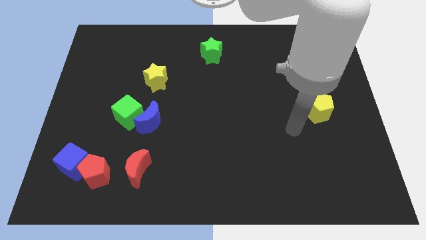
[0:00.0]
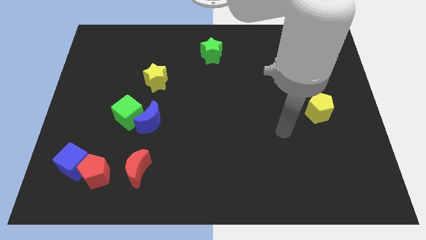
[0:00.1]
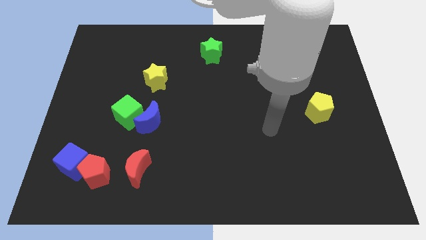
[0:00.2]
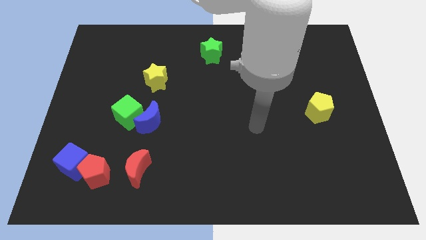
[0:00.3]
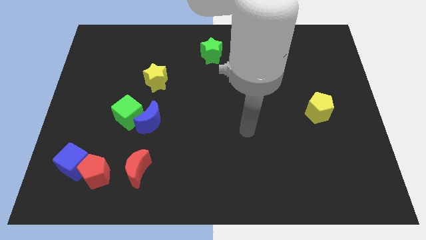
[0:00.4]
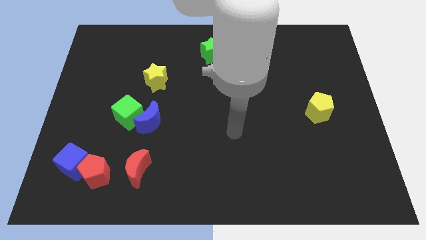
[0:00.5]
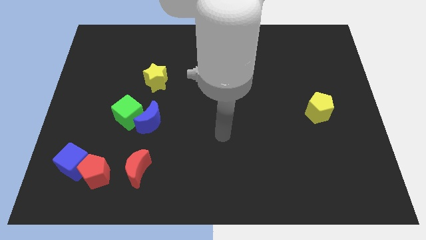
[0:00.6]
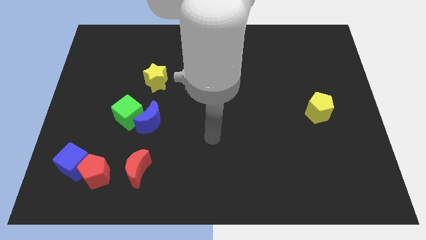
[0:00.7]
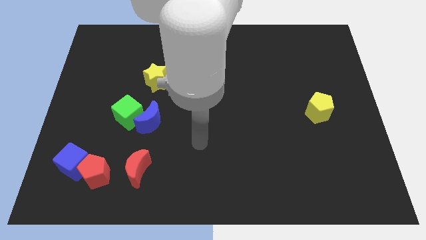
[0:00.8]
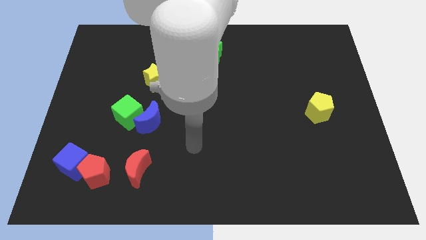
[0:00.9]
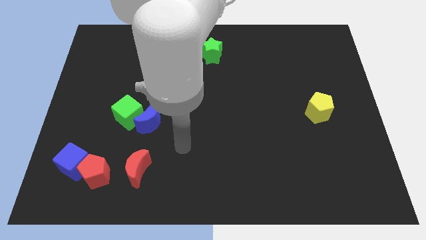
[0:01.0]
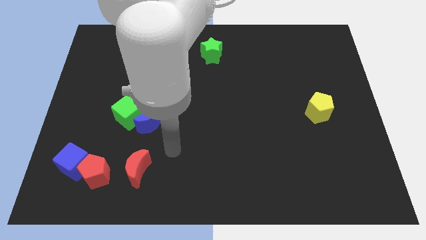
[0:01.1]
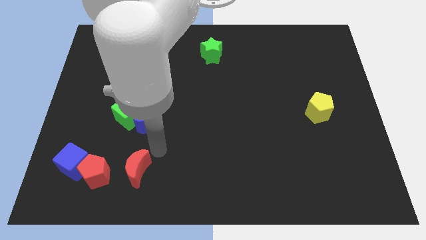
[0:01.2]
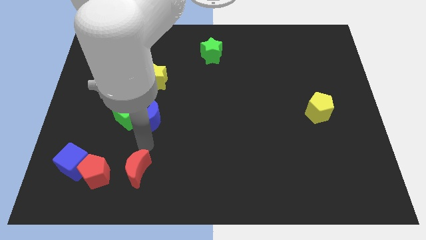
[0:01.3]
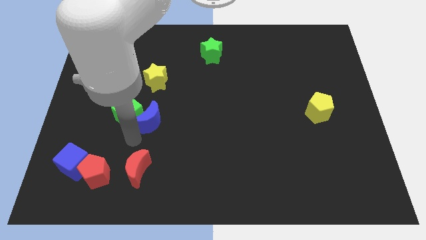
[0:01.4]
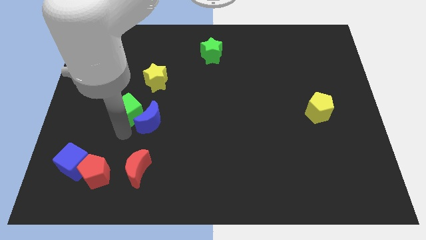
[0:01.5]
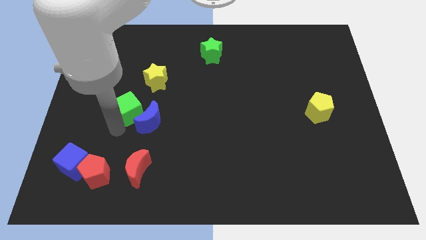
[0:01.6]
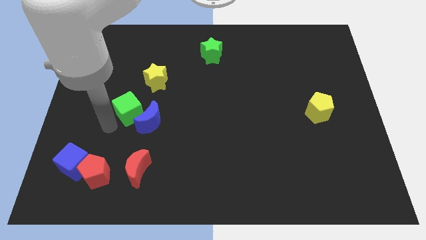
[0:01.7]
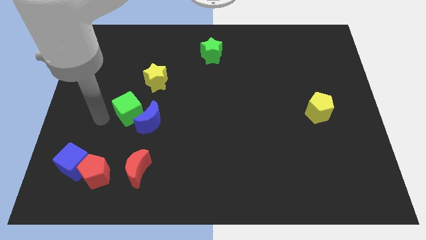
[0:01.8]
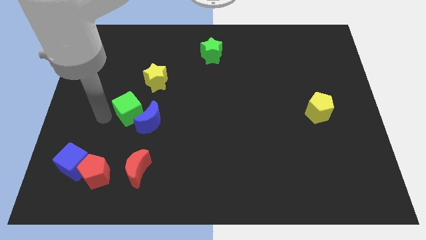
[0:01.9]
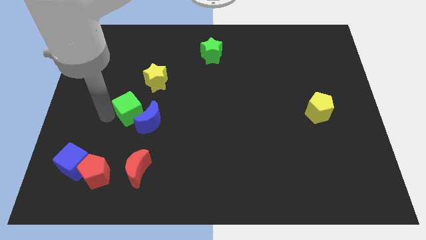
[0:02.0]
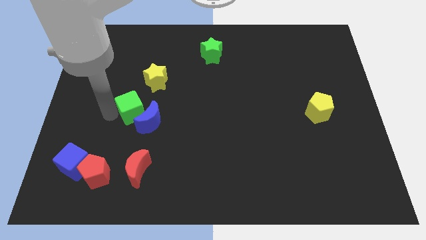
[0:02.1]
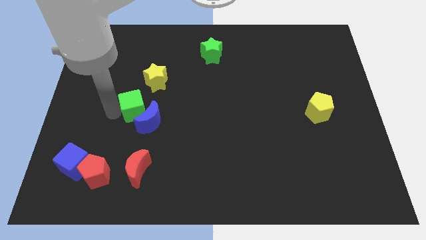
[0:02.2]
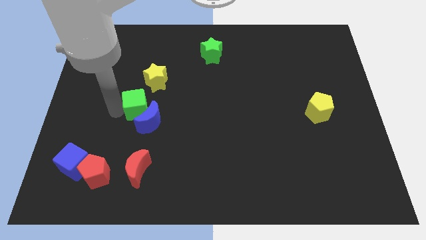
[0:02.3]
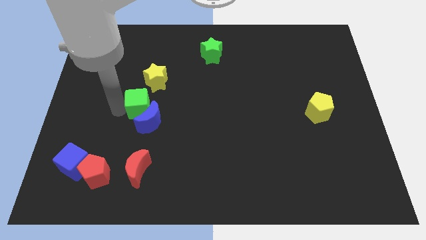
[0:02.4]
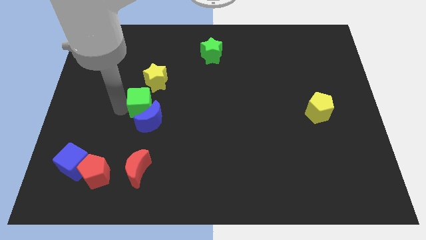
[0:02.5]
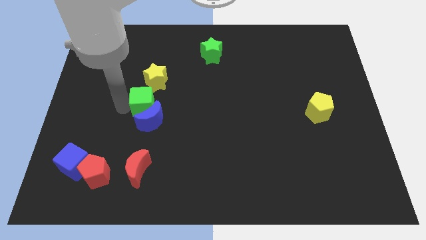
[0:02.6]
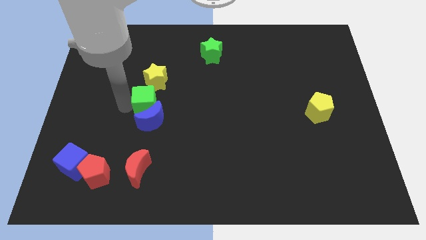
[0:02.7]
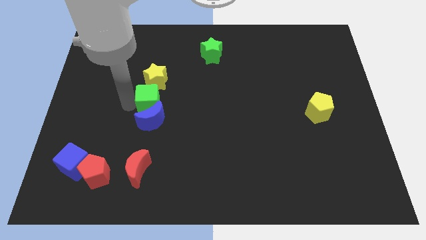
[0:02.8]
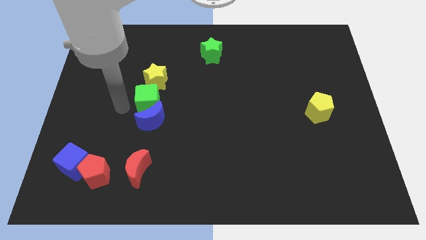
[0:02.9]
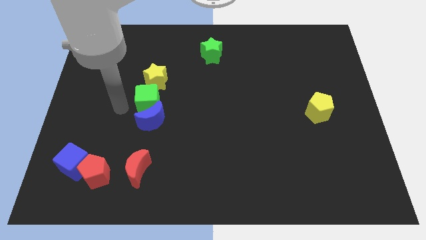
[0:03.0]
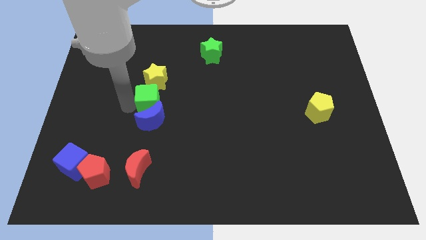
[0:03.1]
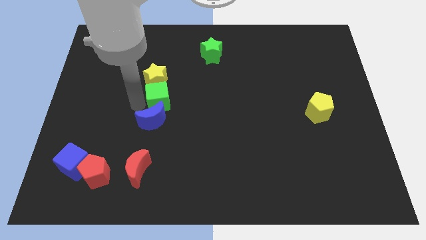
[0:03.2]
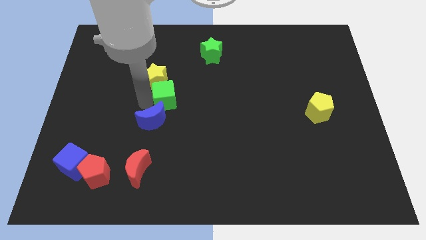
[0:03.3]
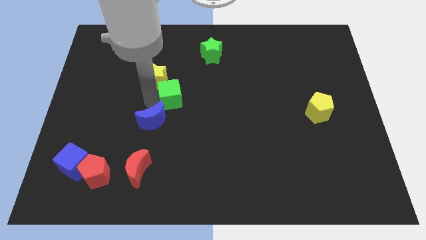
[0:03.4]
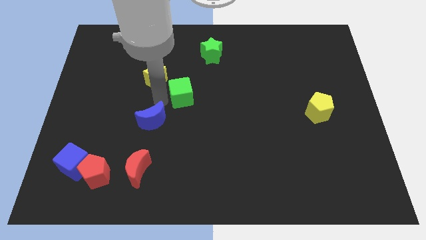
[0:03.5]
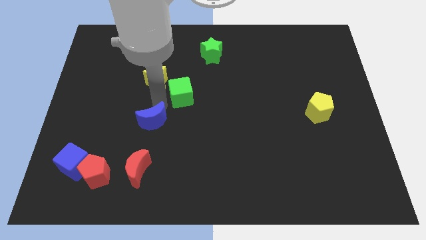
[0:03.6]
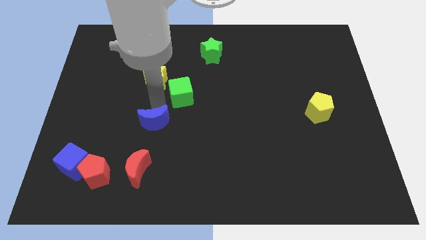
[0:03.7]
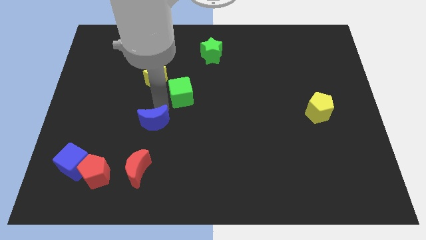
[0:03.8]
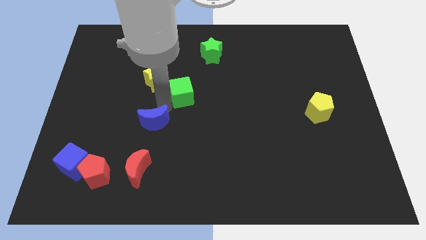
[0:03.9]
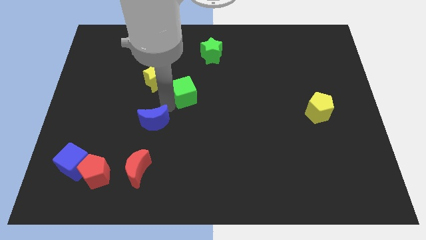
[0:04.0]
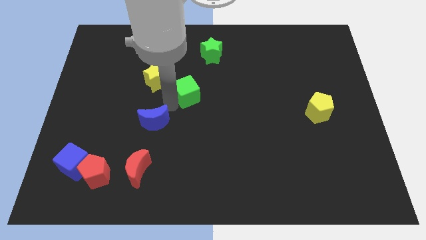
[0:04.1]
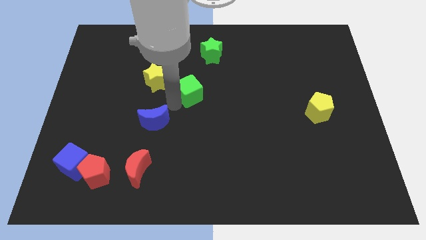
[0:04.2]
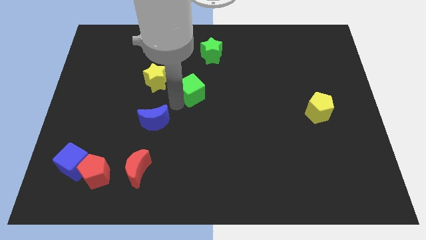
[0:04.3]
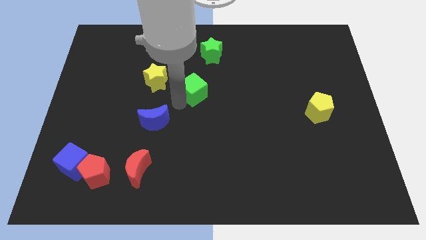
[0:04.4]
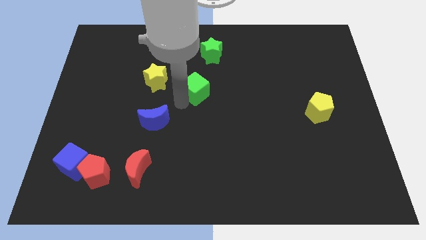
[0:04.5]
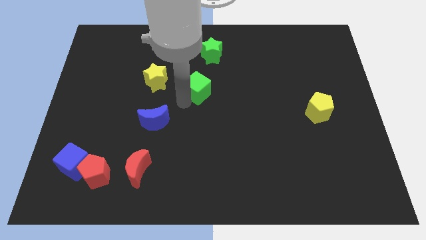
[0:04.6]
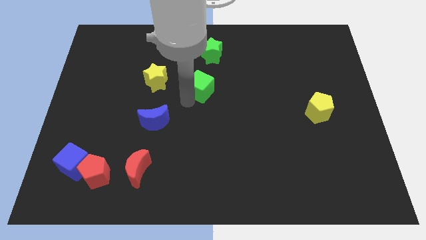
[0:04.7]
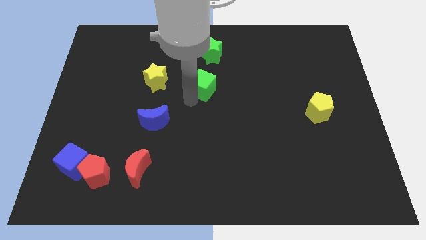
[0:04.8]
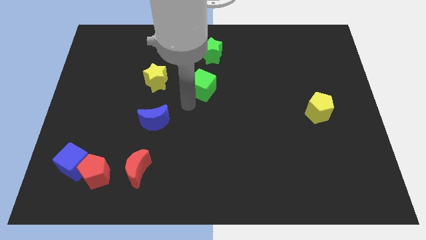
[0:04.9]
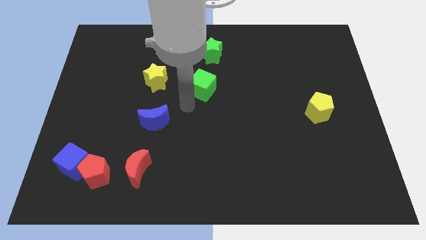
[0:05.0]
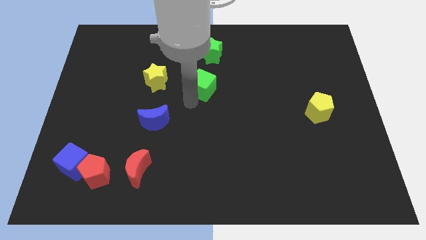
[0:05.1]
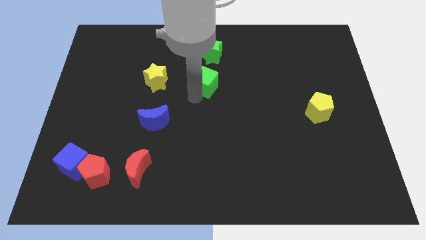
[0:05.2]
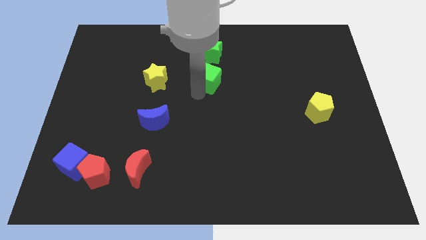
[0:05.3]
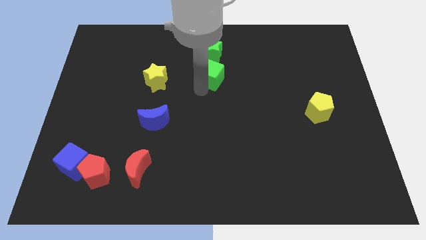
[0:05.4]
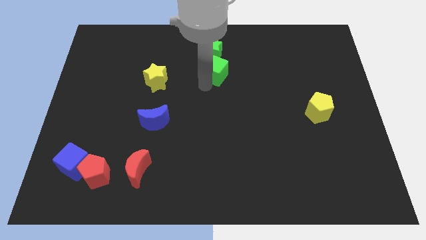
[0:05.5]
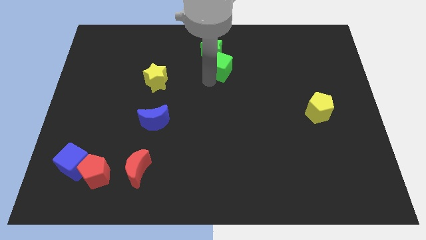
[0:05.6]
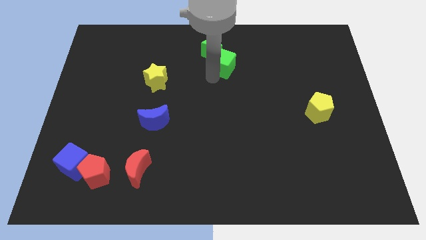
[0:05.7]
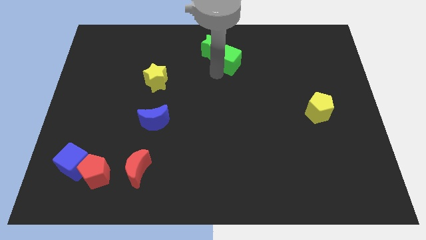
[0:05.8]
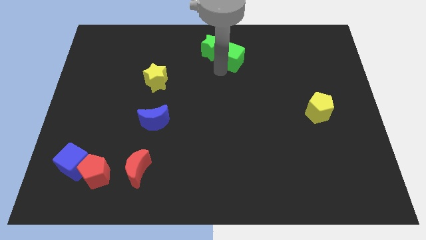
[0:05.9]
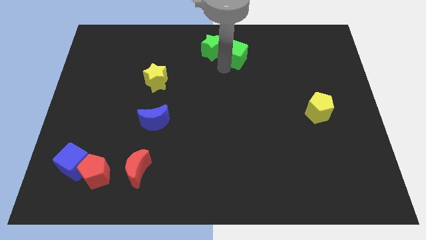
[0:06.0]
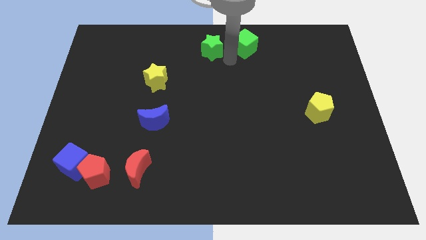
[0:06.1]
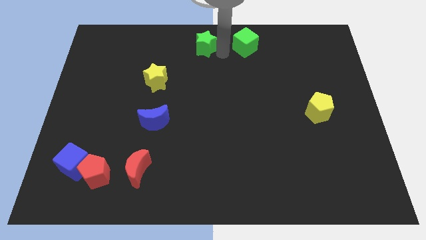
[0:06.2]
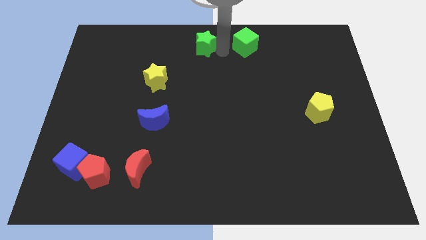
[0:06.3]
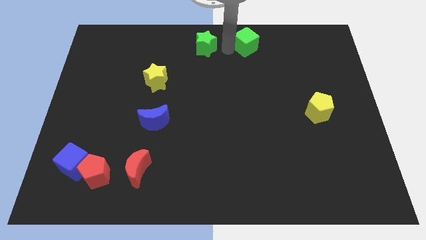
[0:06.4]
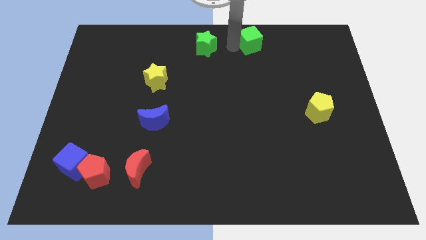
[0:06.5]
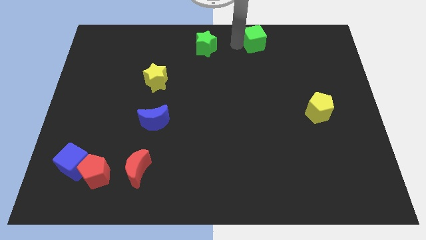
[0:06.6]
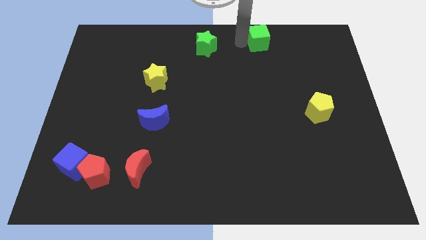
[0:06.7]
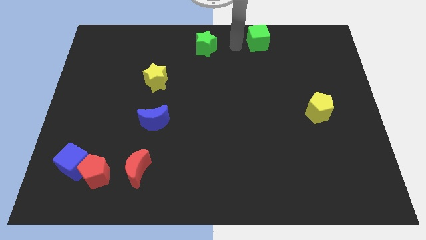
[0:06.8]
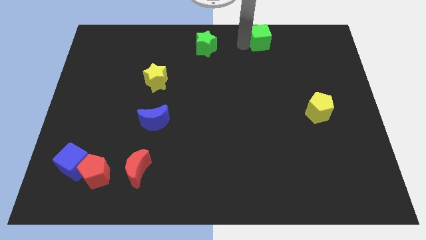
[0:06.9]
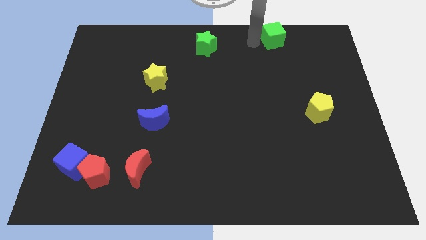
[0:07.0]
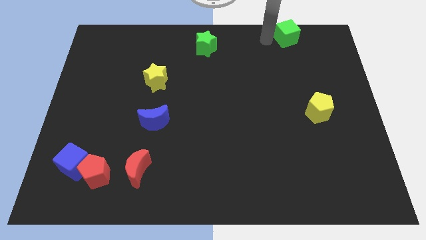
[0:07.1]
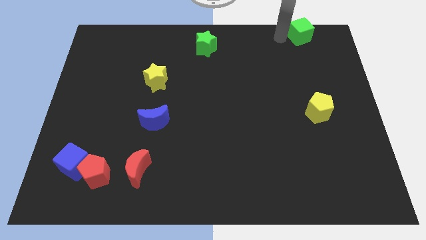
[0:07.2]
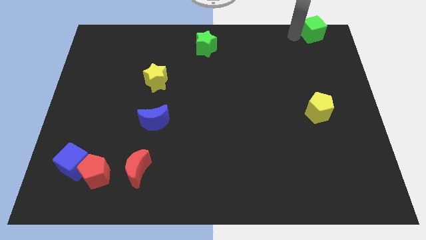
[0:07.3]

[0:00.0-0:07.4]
put the green cube to the upper right corner
